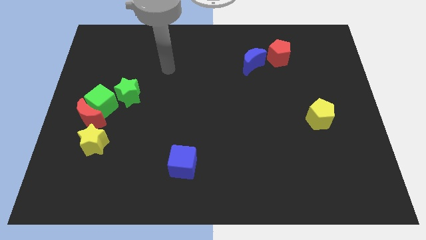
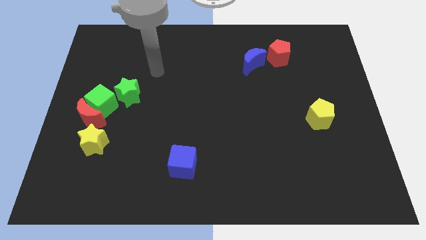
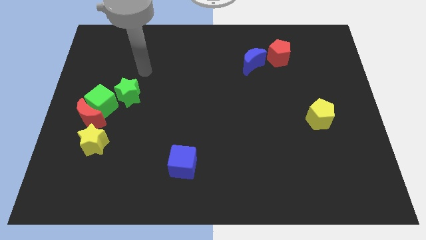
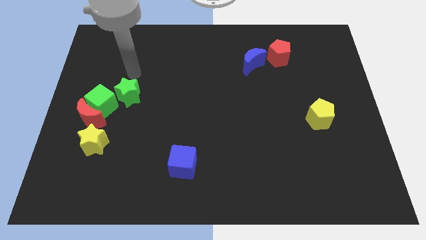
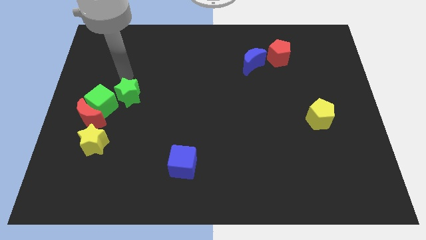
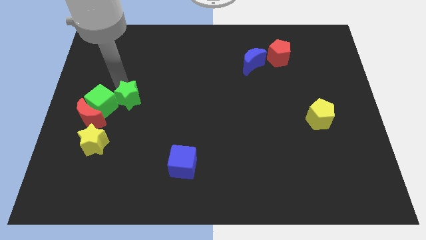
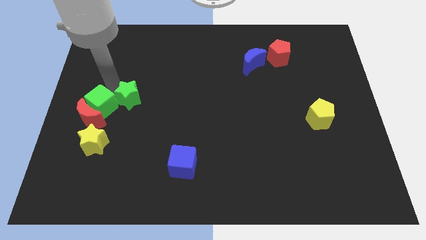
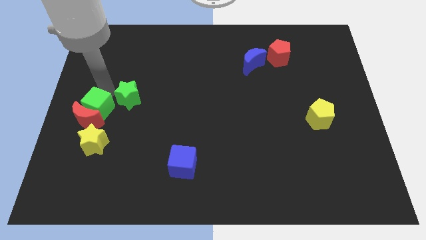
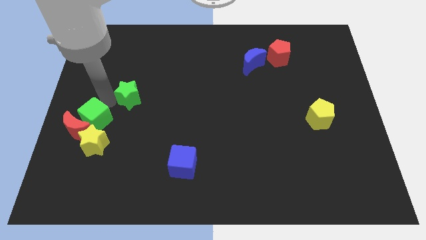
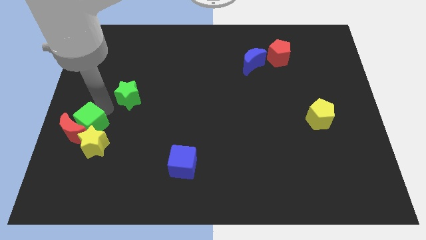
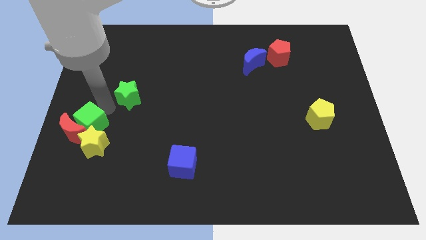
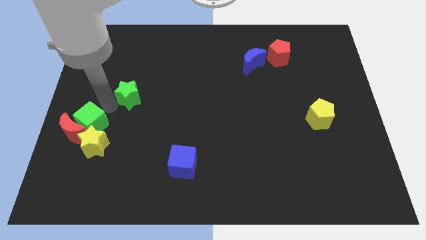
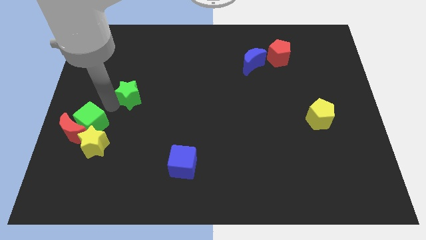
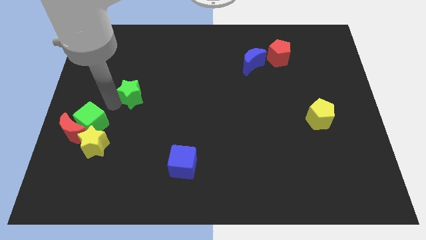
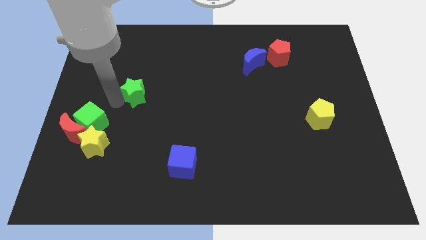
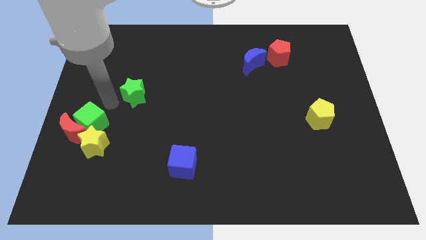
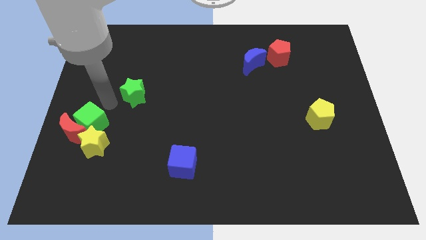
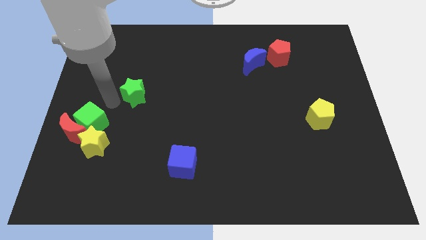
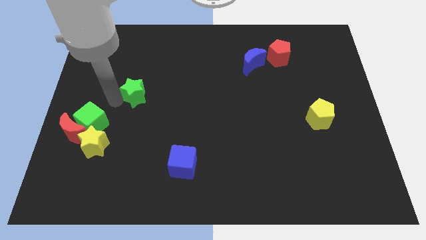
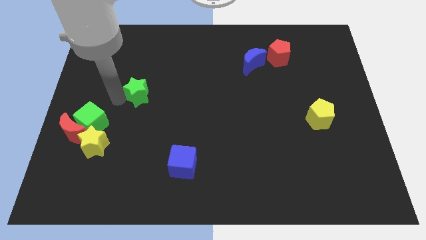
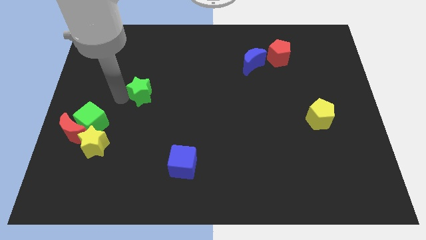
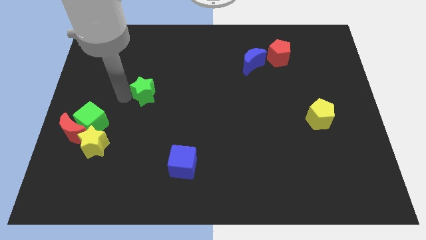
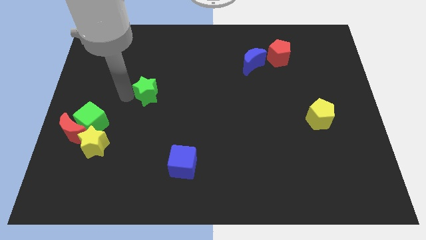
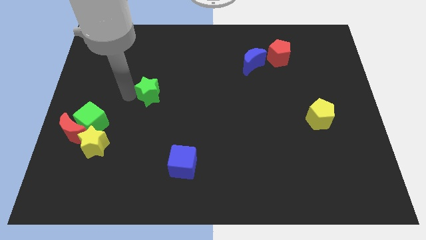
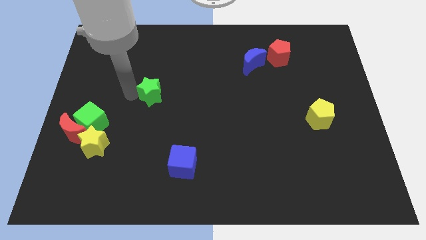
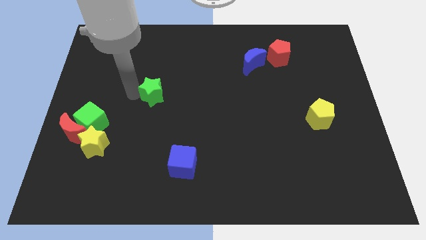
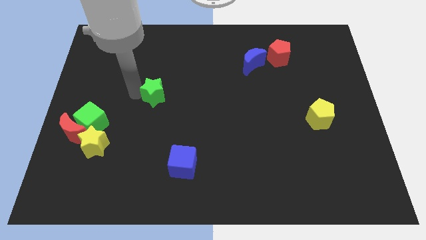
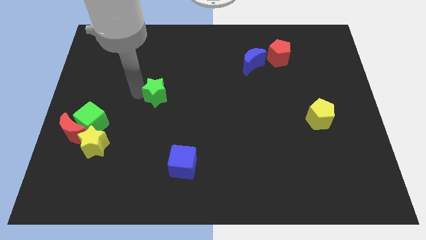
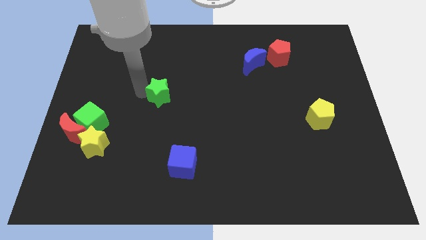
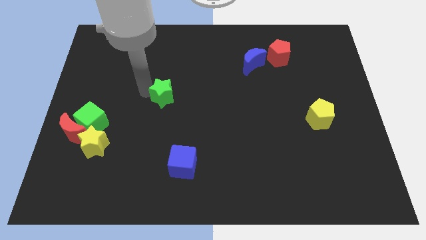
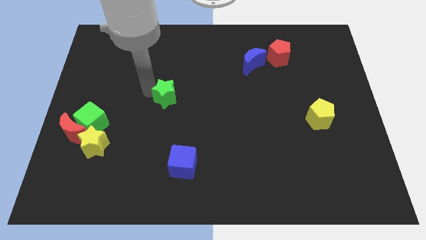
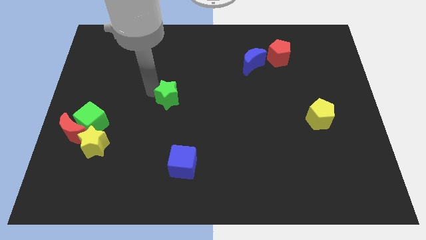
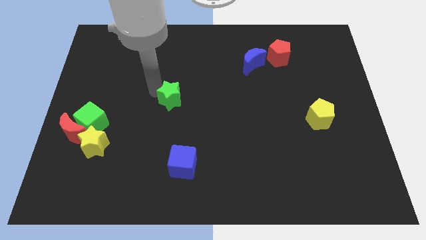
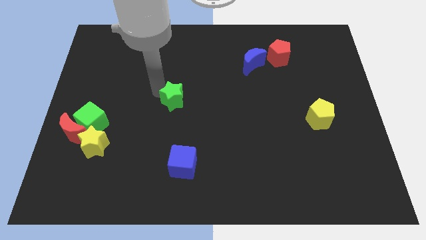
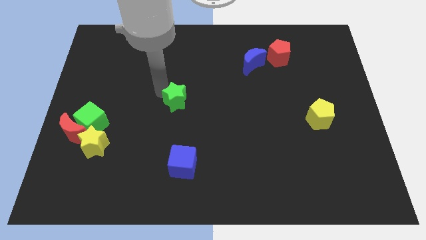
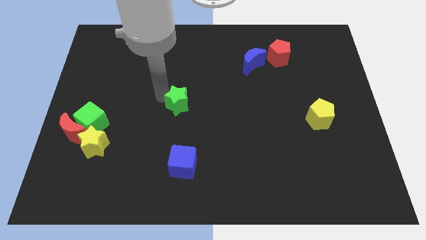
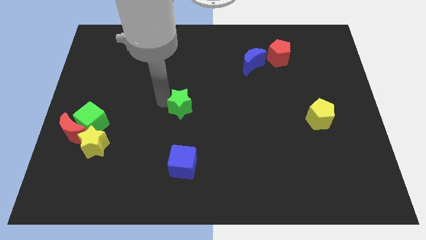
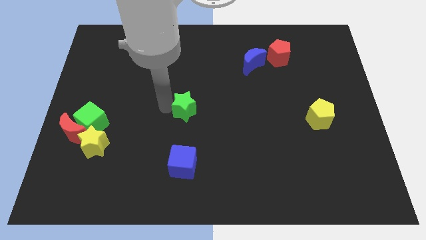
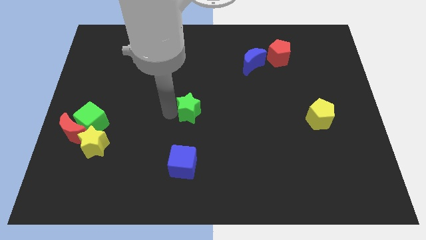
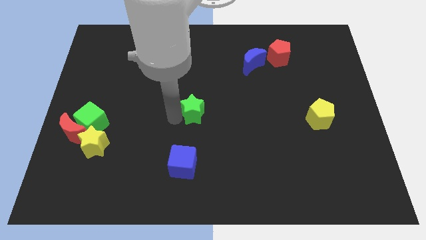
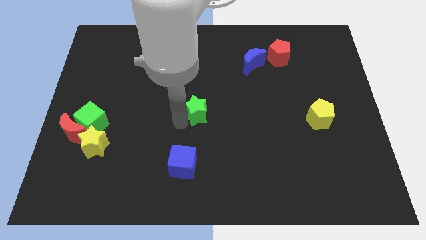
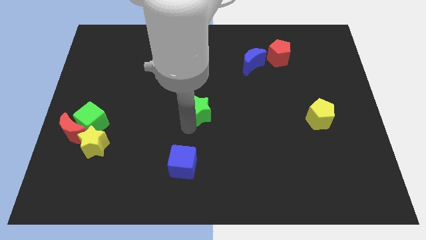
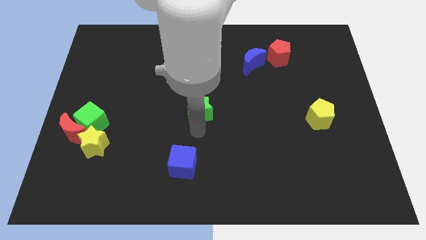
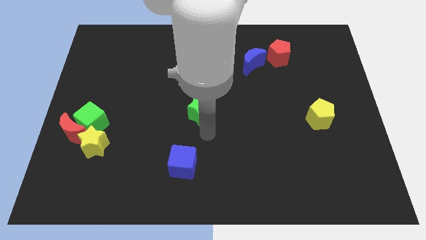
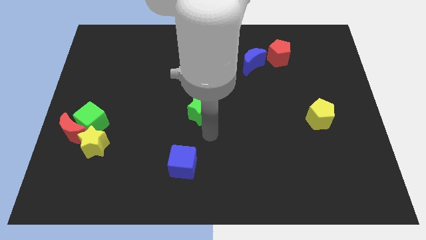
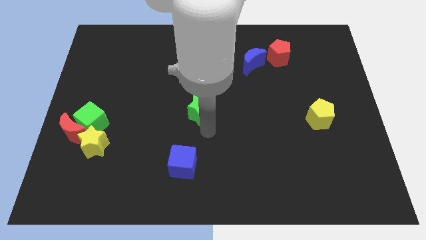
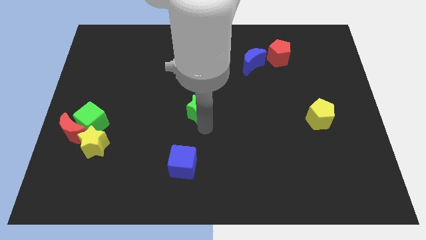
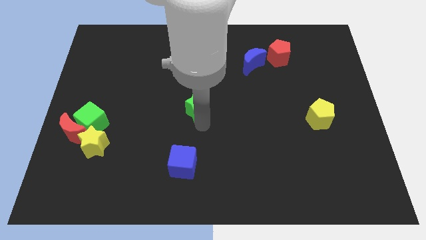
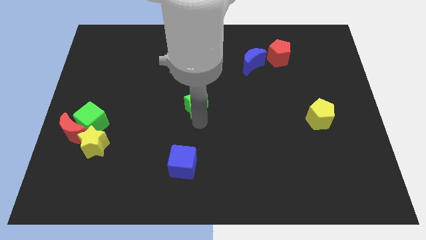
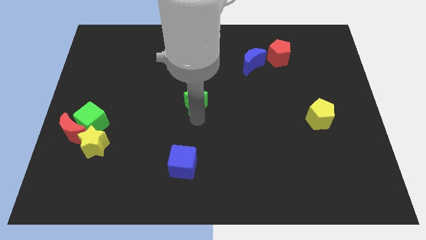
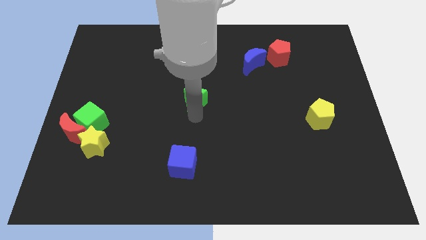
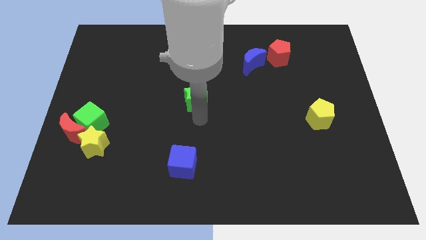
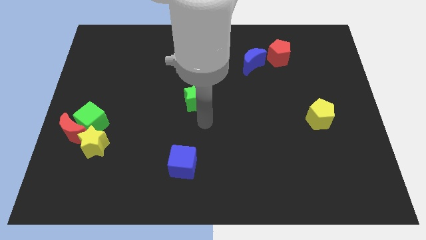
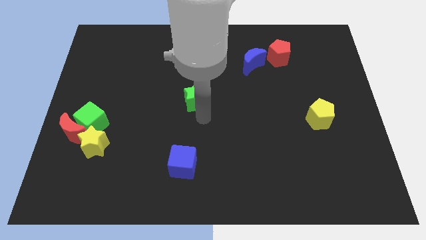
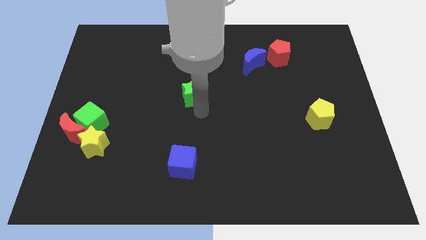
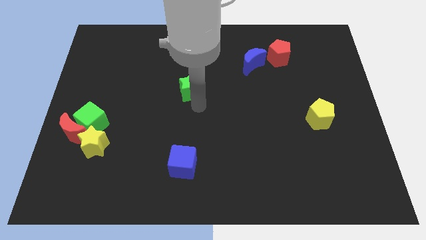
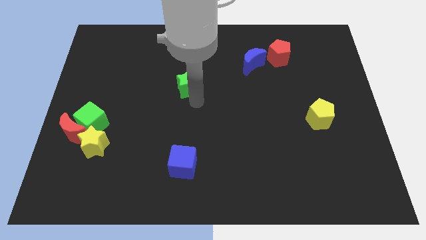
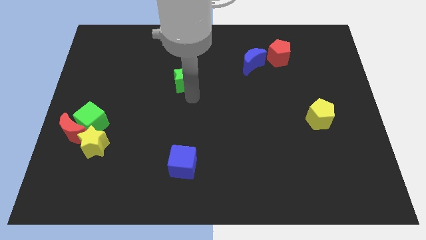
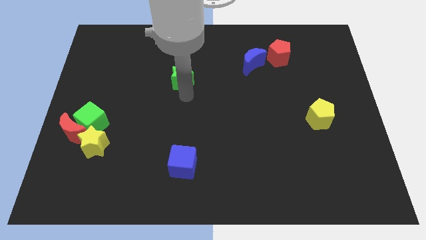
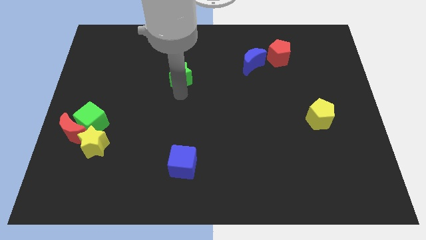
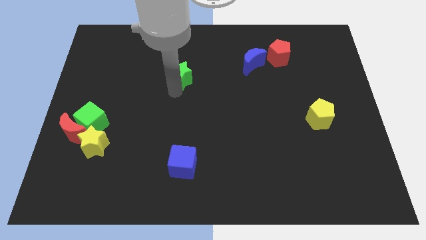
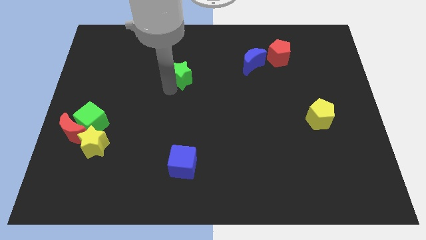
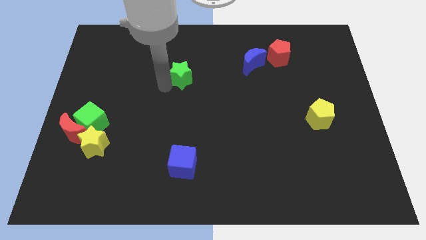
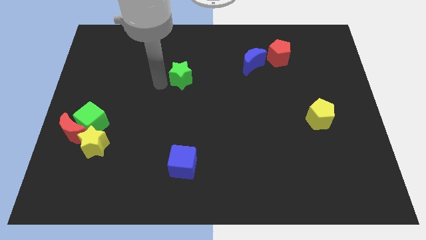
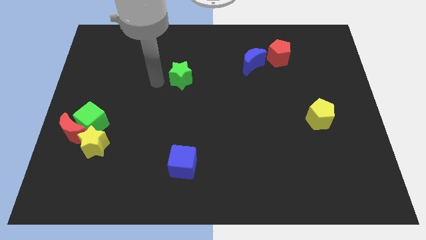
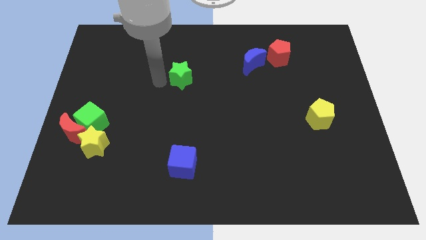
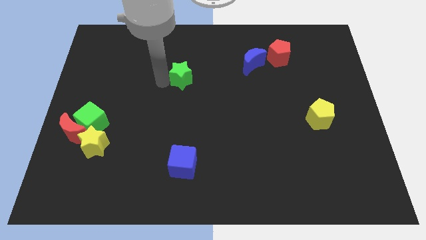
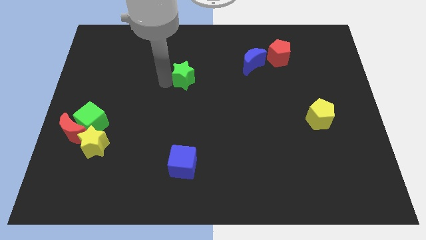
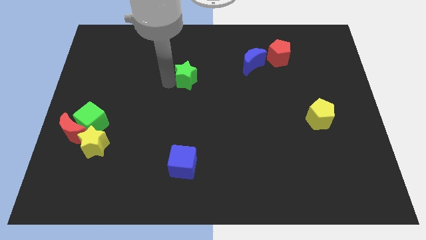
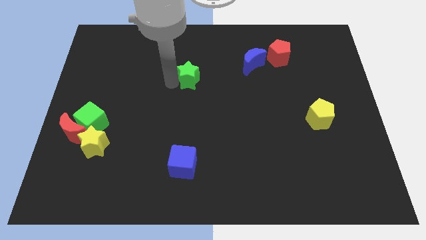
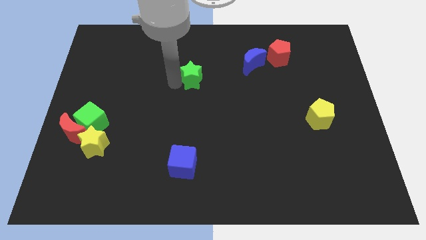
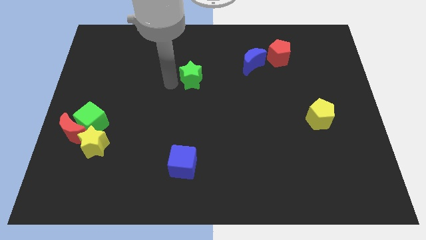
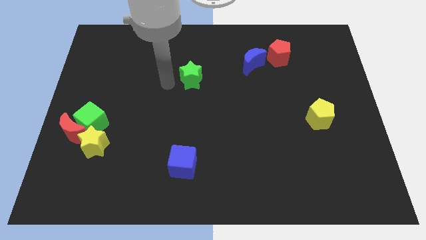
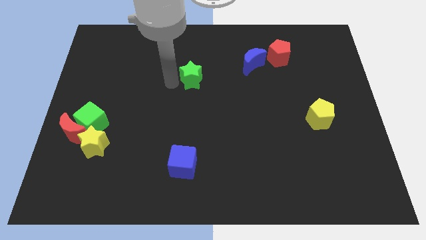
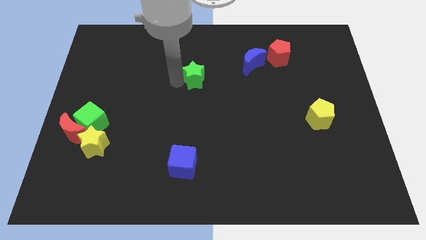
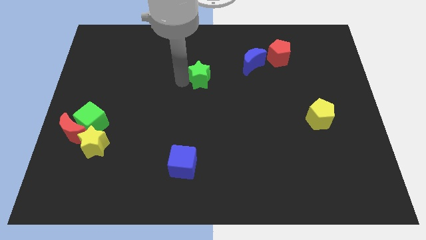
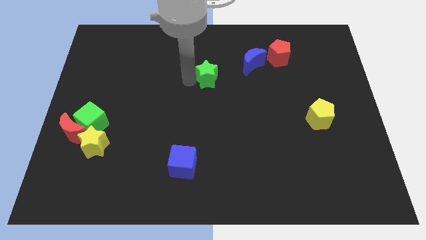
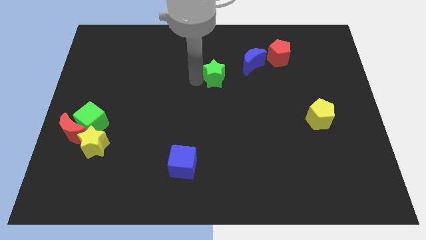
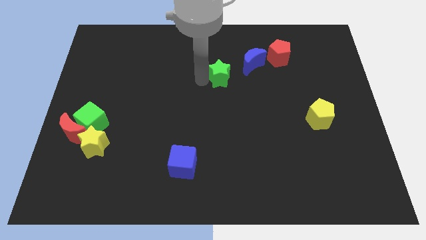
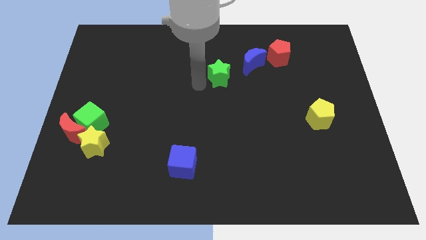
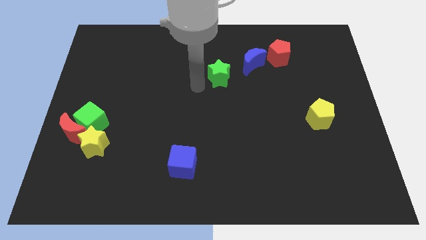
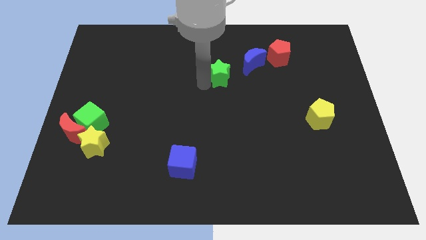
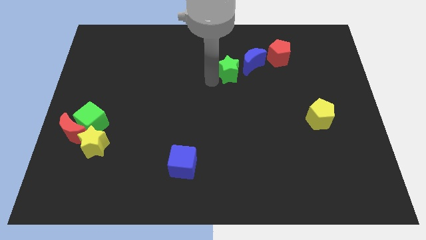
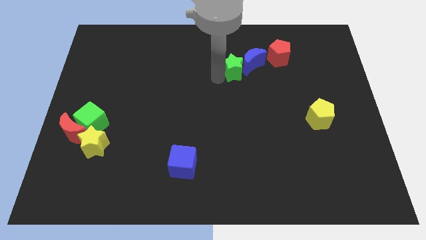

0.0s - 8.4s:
put the green star towards the blue moon
